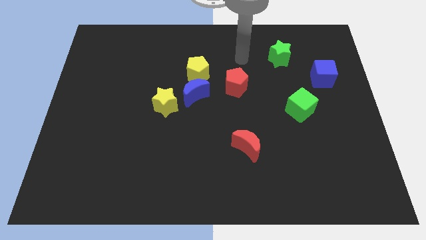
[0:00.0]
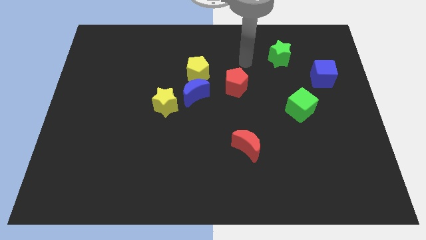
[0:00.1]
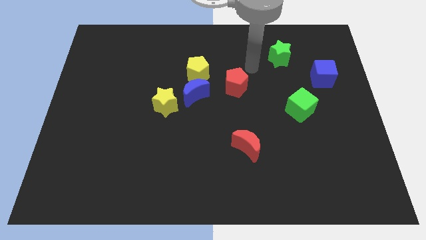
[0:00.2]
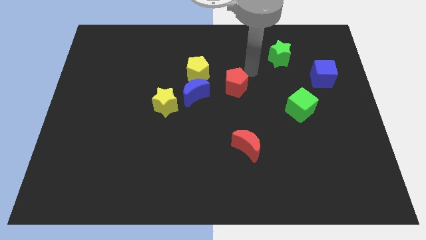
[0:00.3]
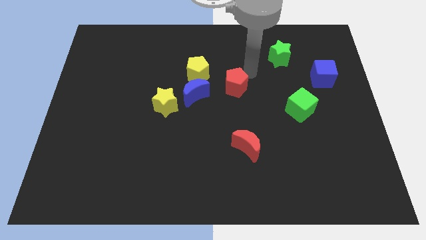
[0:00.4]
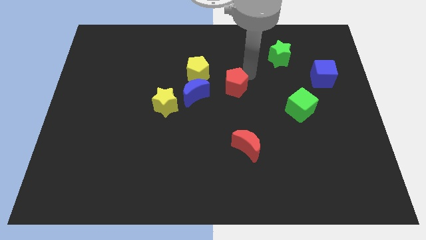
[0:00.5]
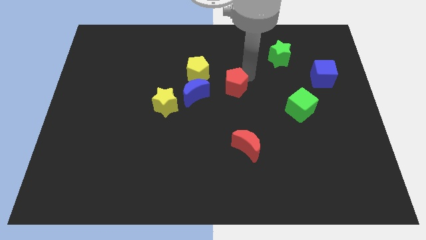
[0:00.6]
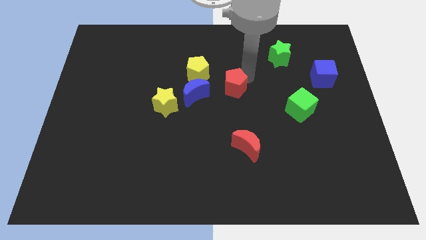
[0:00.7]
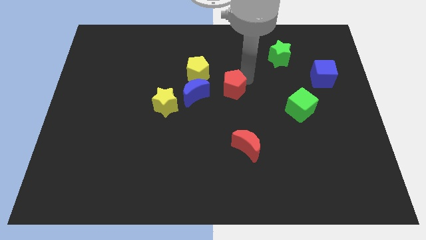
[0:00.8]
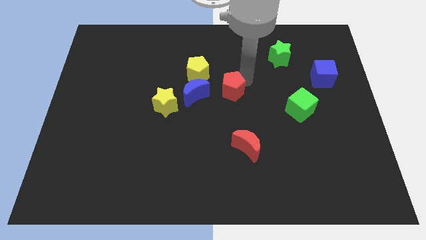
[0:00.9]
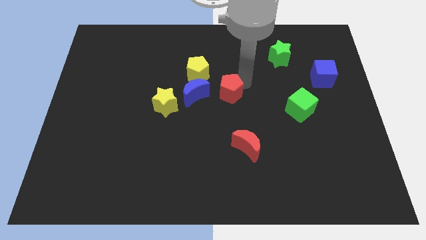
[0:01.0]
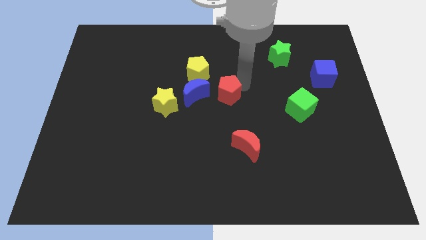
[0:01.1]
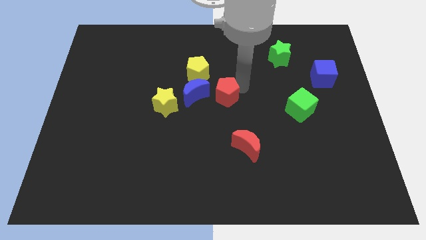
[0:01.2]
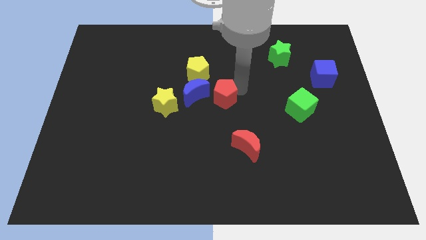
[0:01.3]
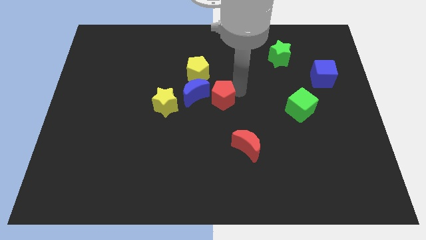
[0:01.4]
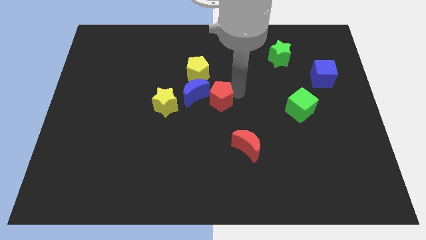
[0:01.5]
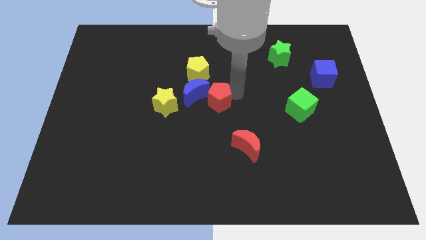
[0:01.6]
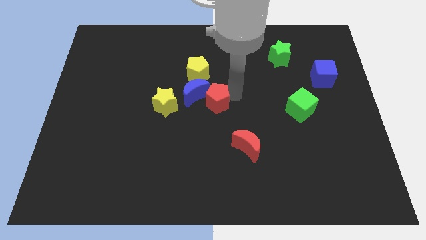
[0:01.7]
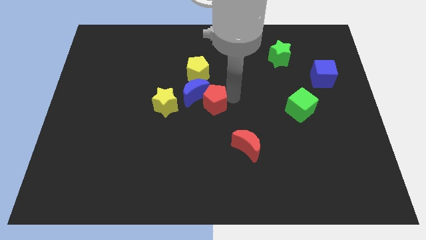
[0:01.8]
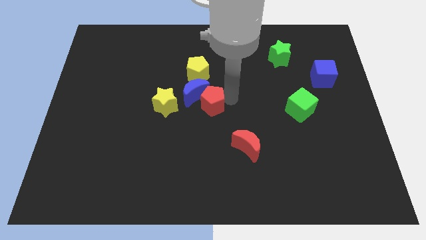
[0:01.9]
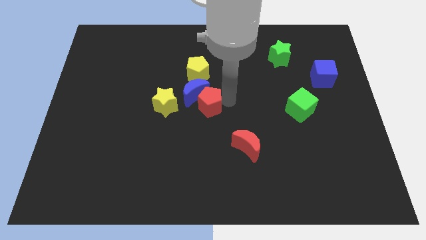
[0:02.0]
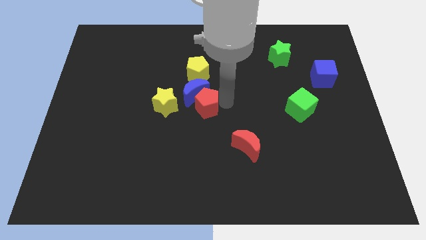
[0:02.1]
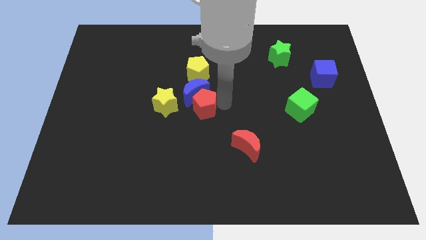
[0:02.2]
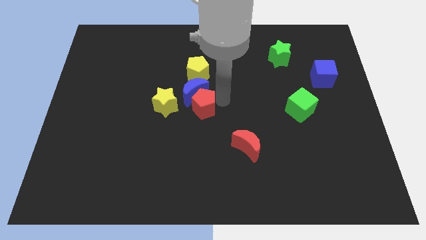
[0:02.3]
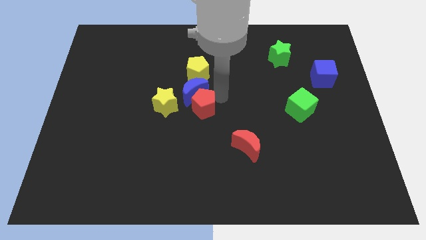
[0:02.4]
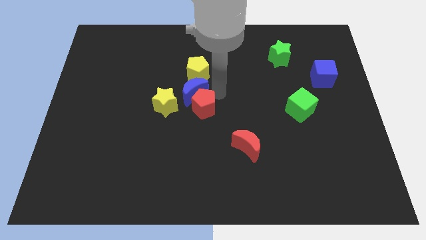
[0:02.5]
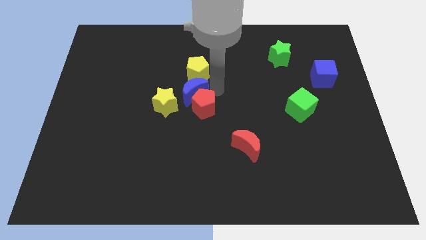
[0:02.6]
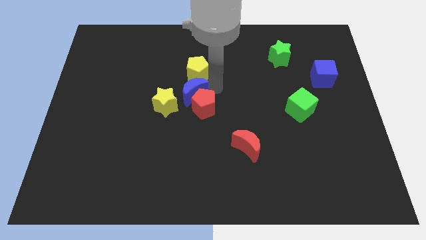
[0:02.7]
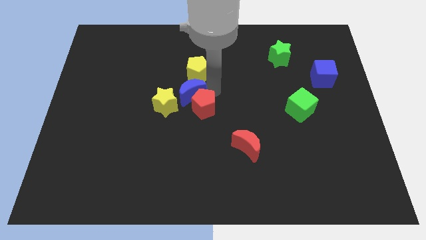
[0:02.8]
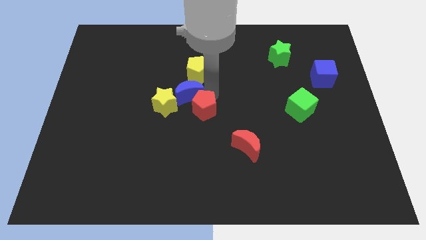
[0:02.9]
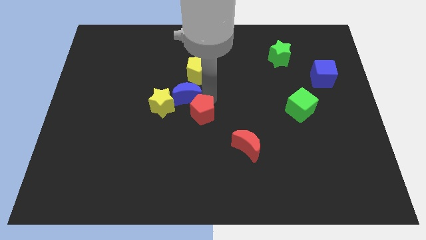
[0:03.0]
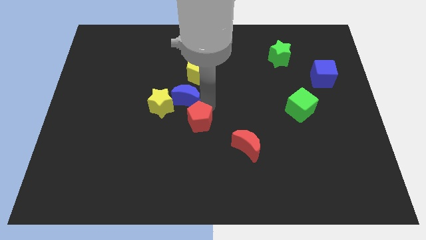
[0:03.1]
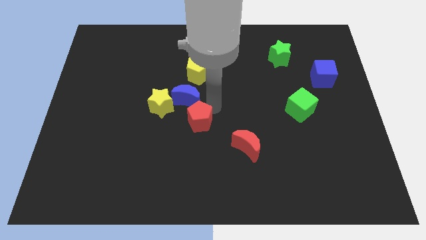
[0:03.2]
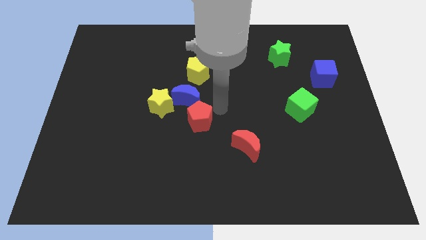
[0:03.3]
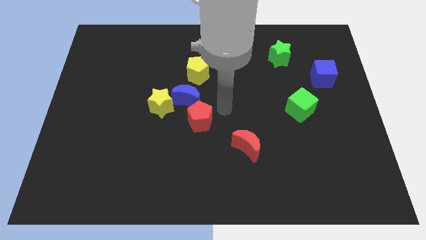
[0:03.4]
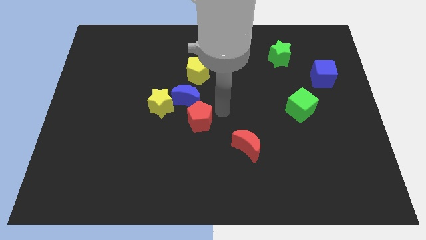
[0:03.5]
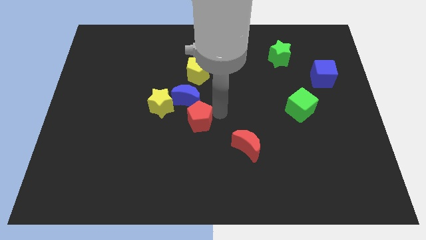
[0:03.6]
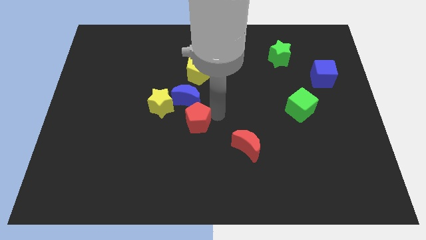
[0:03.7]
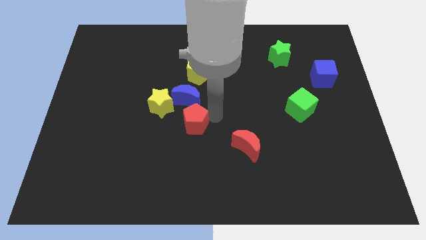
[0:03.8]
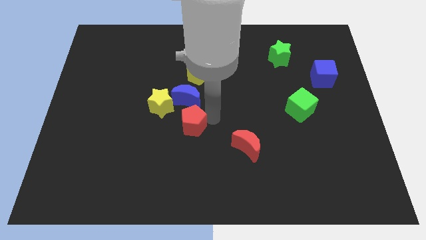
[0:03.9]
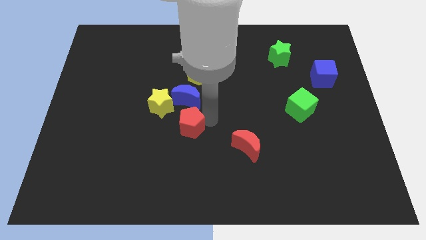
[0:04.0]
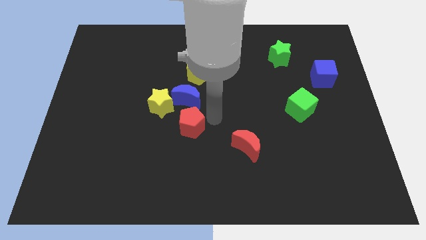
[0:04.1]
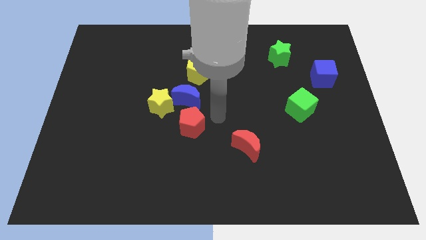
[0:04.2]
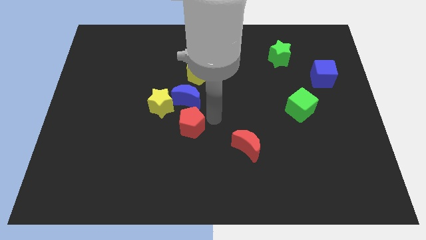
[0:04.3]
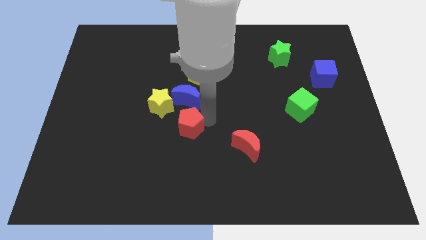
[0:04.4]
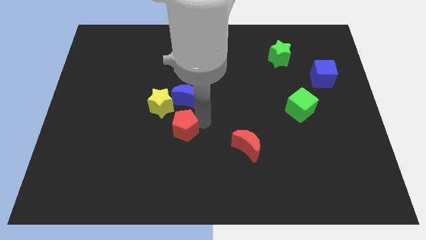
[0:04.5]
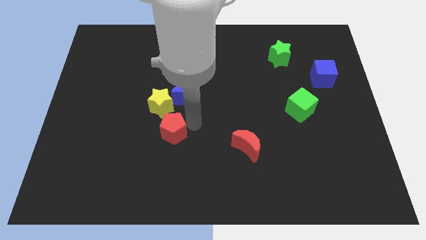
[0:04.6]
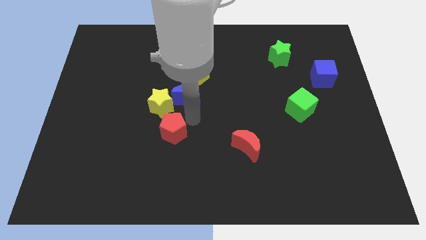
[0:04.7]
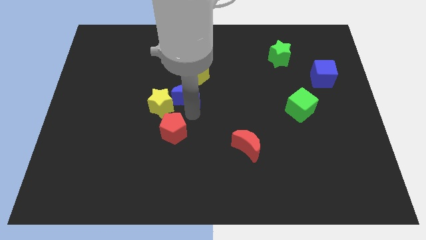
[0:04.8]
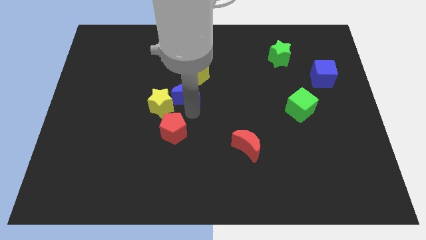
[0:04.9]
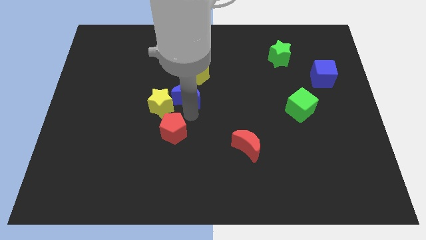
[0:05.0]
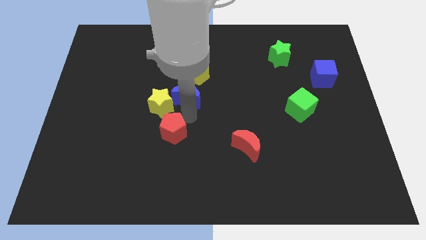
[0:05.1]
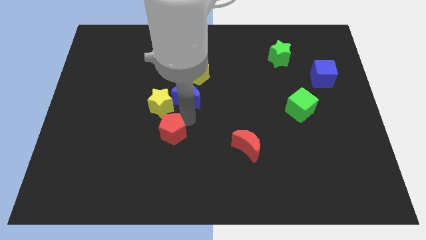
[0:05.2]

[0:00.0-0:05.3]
slide the red pentagon diagonally down and to the left

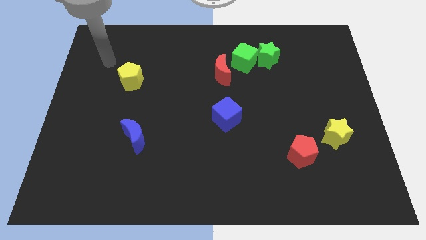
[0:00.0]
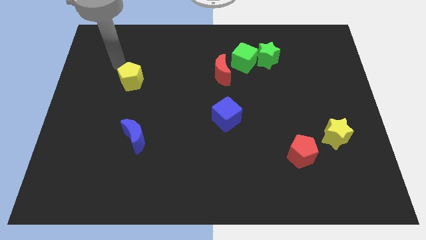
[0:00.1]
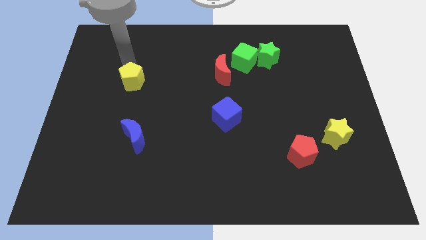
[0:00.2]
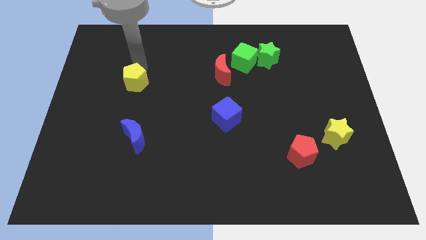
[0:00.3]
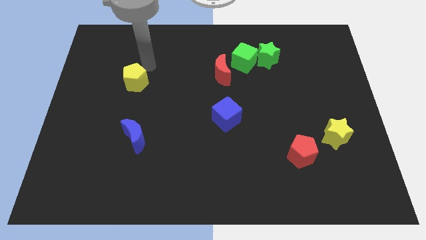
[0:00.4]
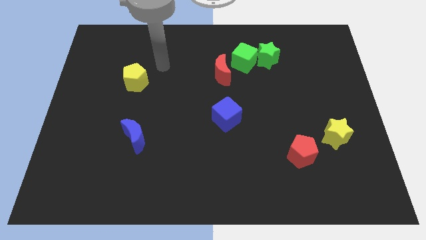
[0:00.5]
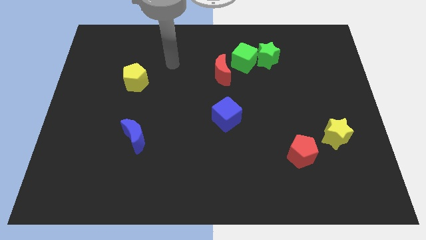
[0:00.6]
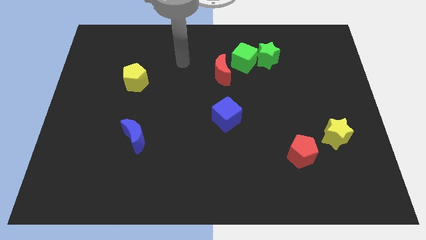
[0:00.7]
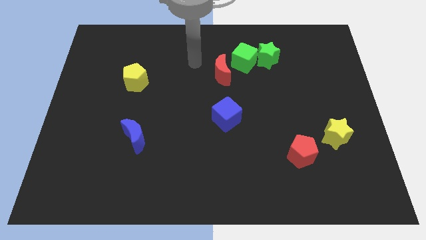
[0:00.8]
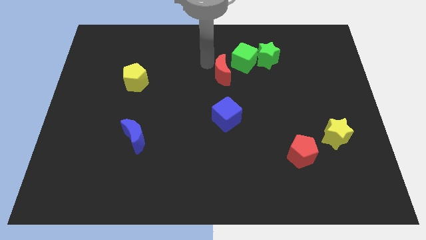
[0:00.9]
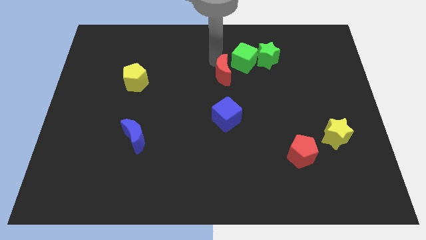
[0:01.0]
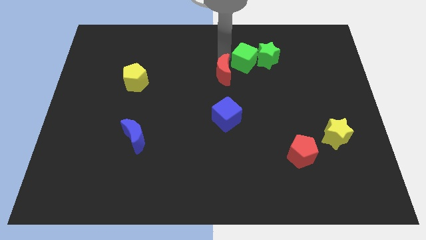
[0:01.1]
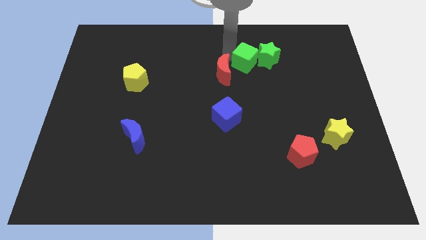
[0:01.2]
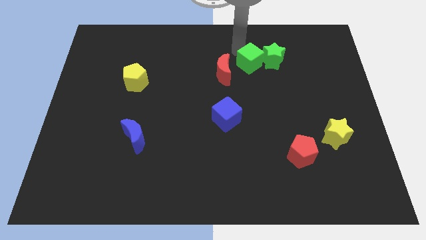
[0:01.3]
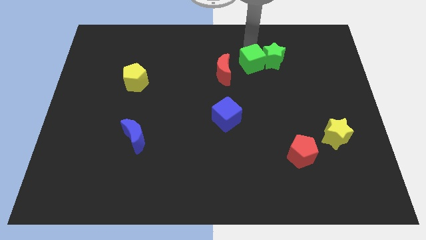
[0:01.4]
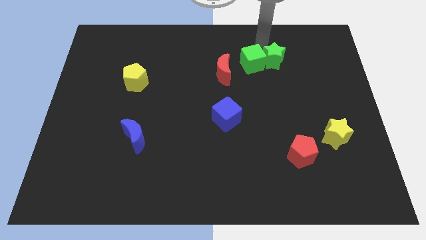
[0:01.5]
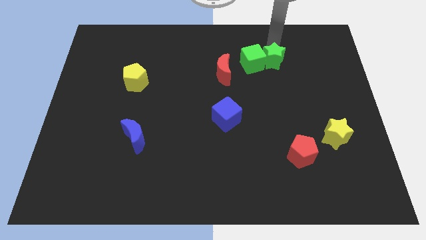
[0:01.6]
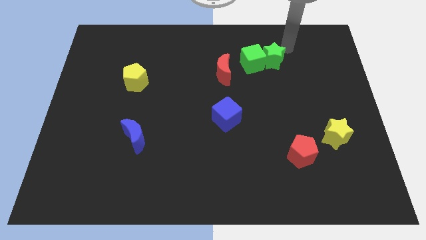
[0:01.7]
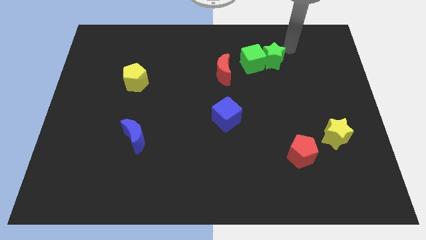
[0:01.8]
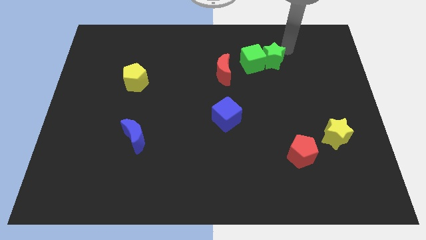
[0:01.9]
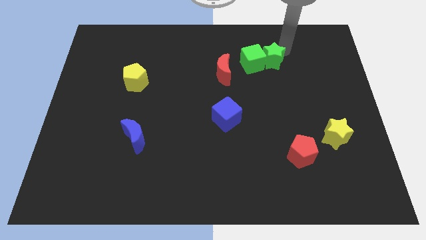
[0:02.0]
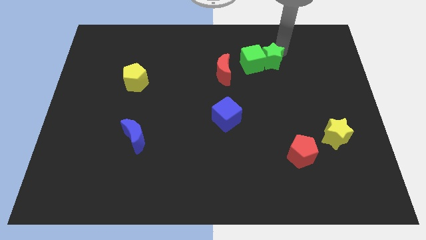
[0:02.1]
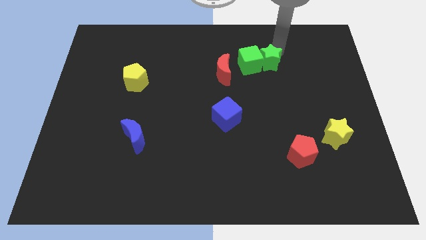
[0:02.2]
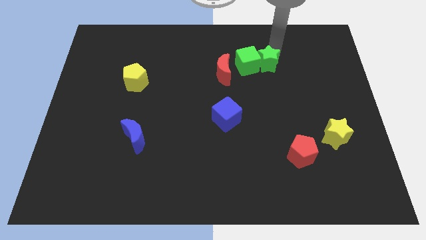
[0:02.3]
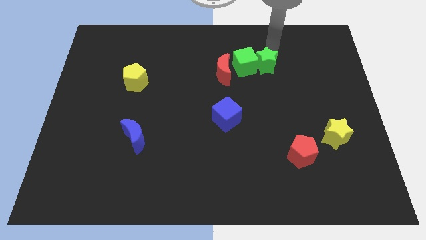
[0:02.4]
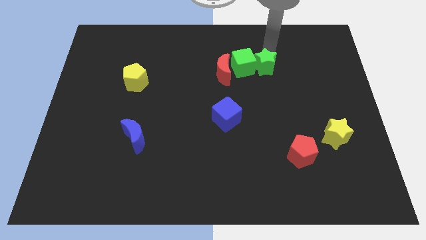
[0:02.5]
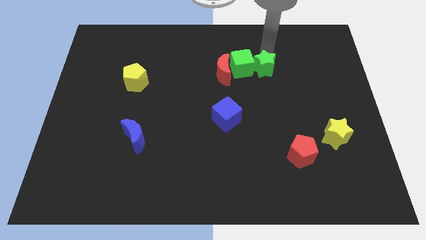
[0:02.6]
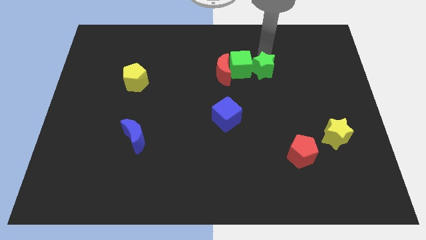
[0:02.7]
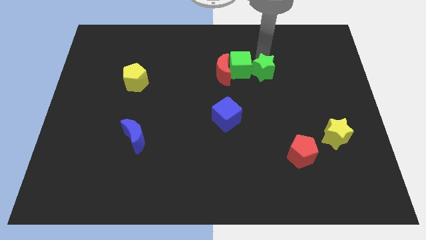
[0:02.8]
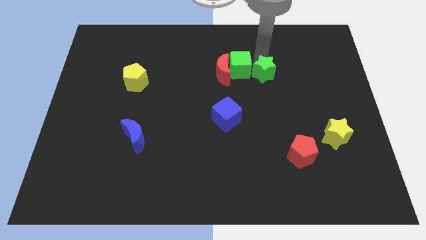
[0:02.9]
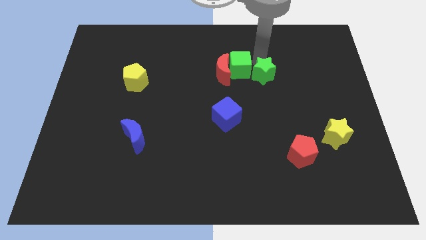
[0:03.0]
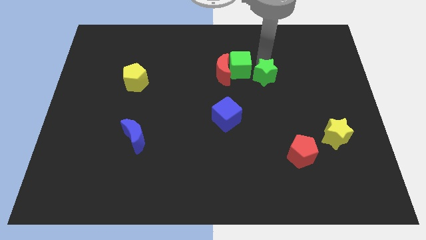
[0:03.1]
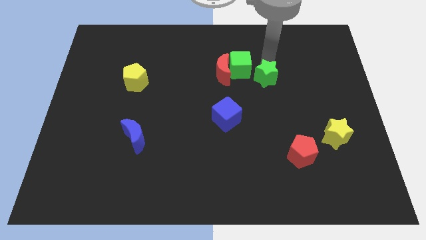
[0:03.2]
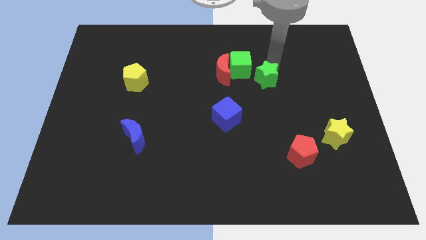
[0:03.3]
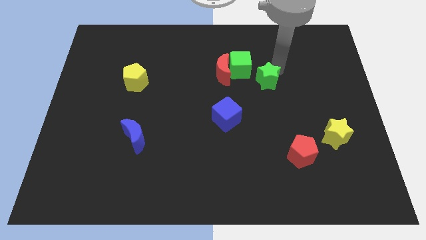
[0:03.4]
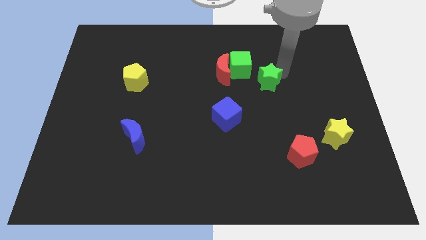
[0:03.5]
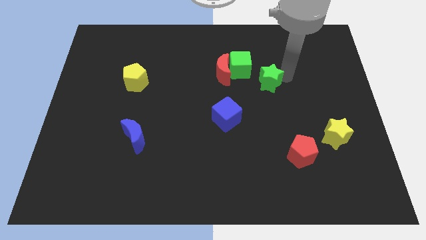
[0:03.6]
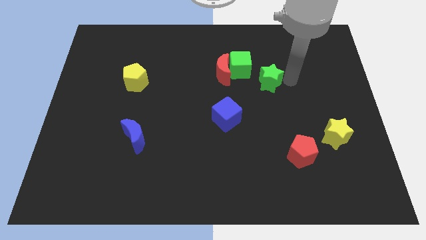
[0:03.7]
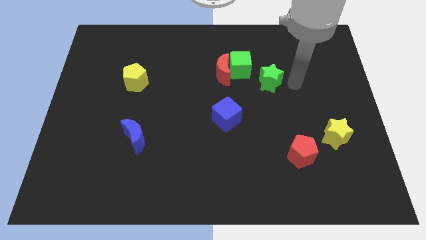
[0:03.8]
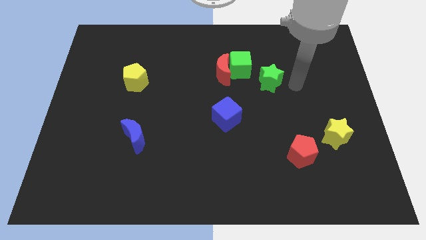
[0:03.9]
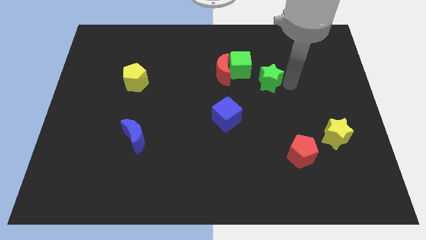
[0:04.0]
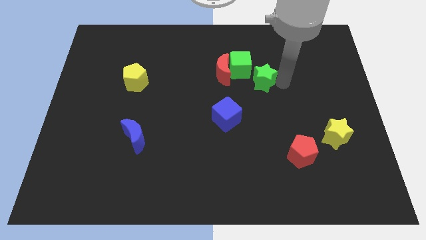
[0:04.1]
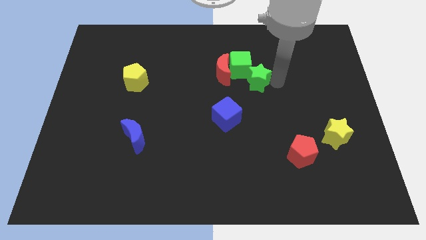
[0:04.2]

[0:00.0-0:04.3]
slide the green star a bit down and then left
